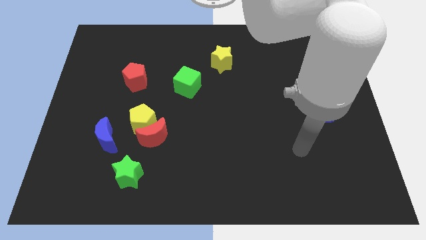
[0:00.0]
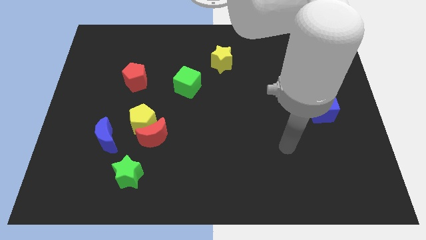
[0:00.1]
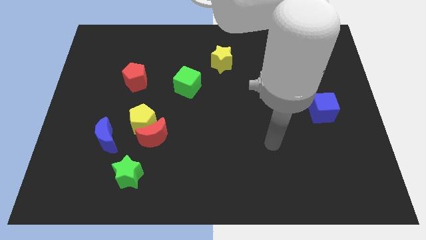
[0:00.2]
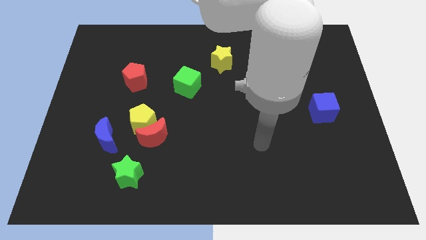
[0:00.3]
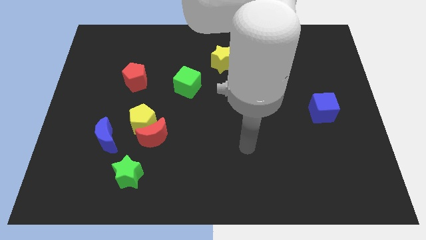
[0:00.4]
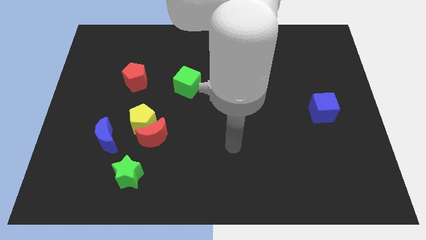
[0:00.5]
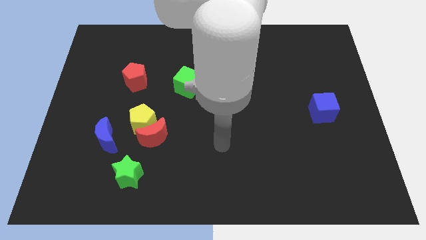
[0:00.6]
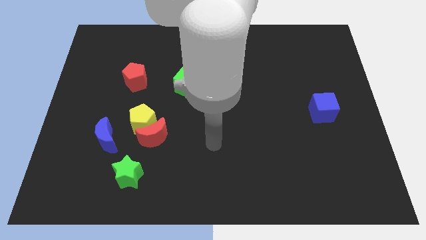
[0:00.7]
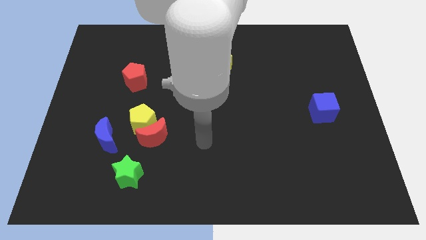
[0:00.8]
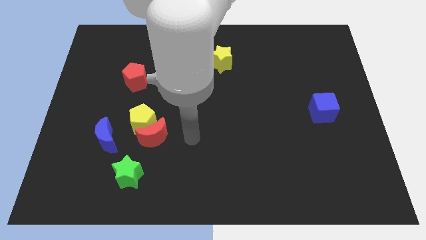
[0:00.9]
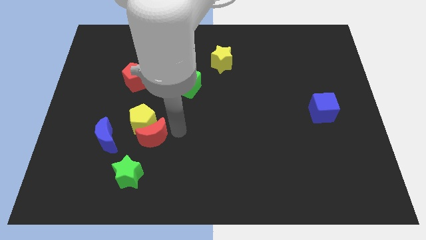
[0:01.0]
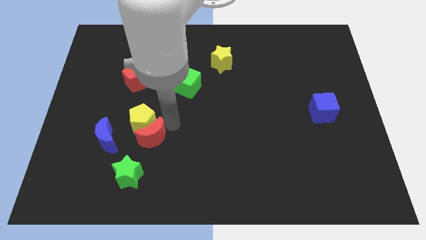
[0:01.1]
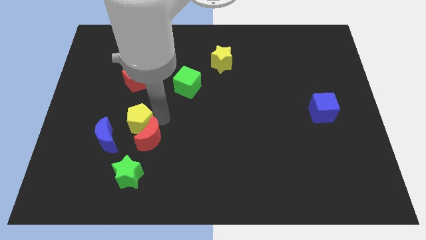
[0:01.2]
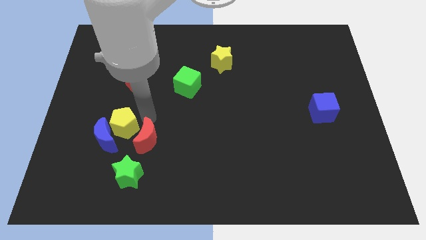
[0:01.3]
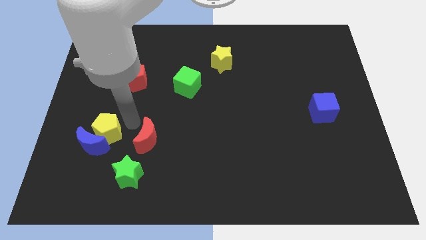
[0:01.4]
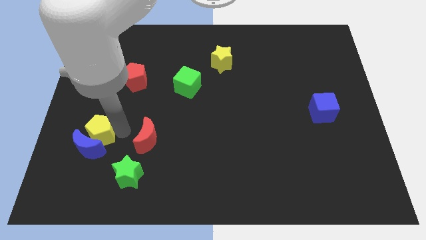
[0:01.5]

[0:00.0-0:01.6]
move the red moon away from the yellow pentagon

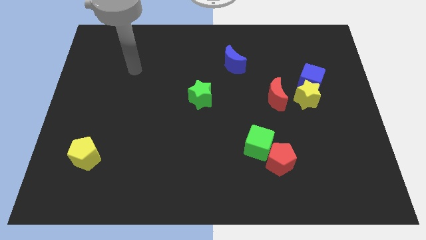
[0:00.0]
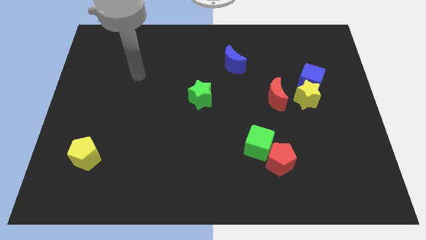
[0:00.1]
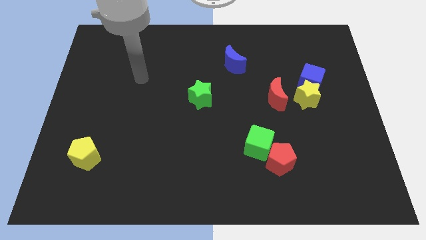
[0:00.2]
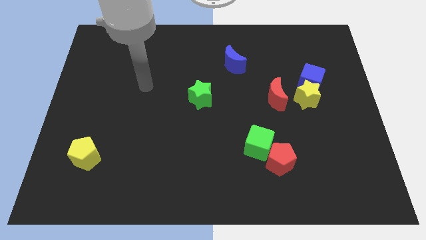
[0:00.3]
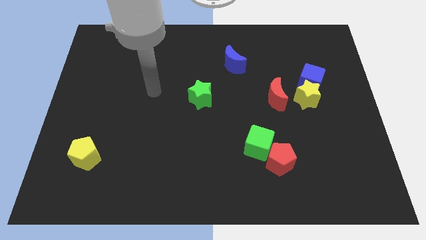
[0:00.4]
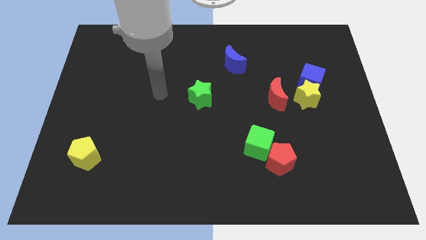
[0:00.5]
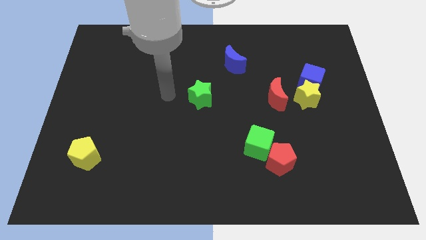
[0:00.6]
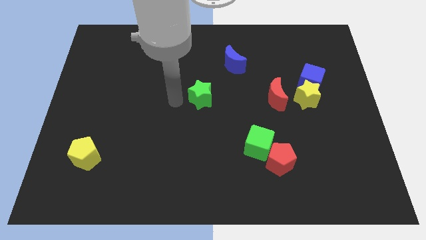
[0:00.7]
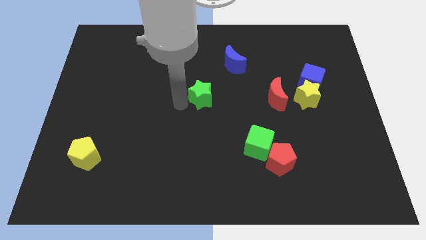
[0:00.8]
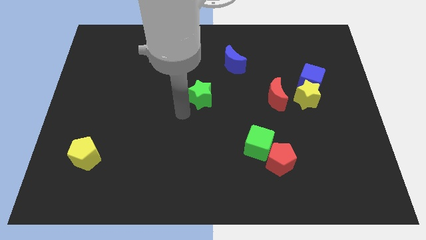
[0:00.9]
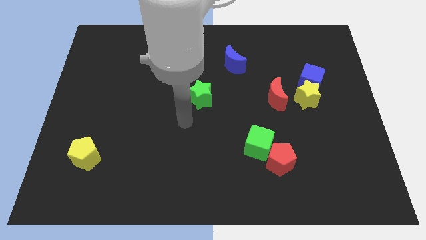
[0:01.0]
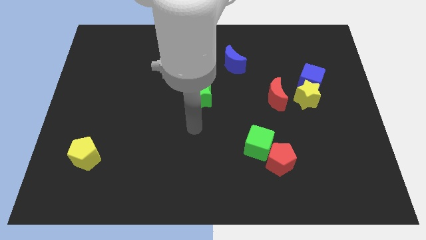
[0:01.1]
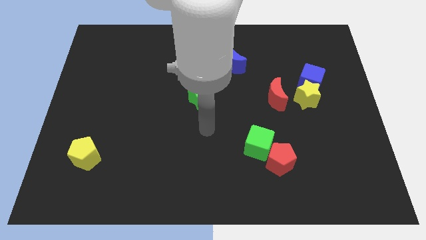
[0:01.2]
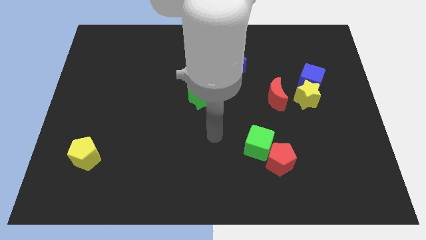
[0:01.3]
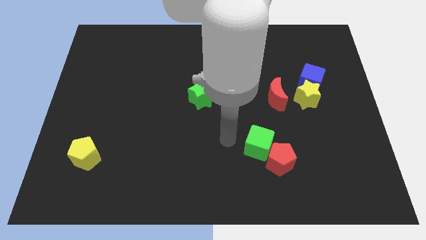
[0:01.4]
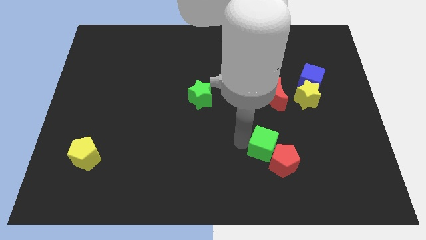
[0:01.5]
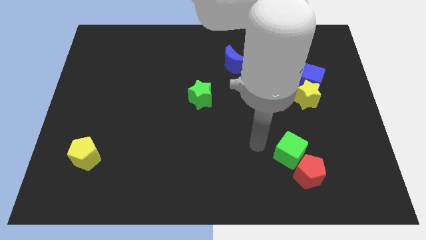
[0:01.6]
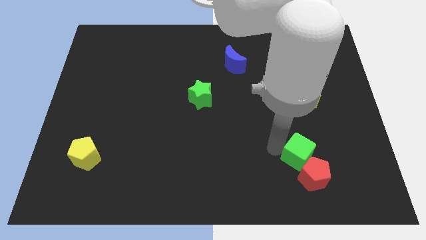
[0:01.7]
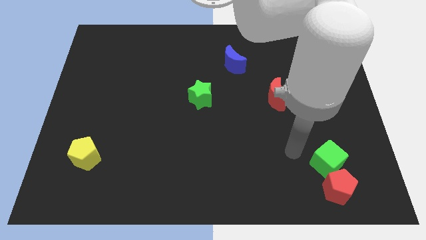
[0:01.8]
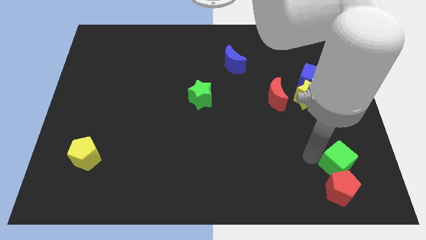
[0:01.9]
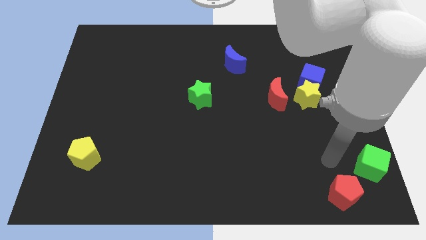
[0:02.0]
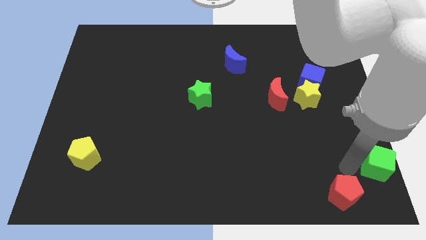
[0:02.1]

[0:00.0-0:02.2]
pull the red pentagon apart from the green cube

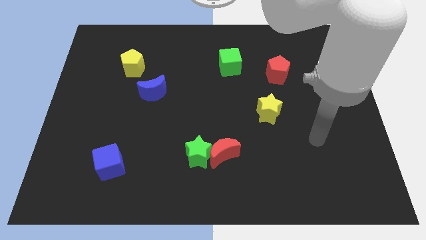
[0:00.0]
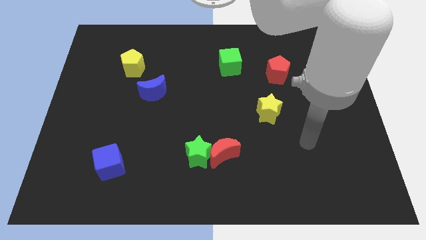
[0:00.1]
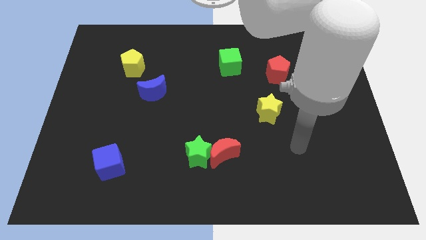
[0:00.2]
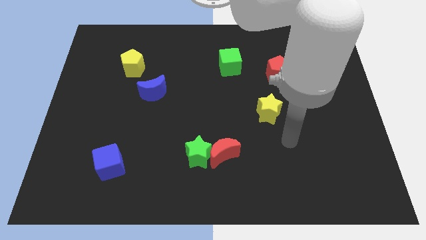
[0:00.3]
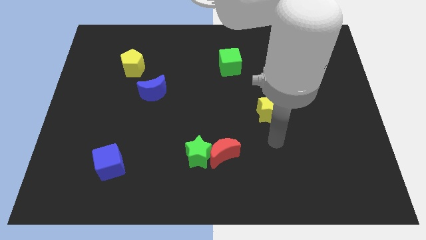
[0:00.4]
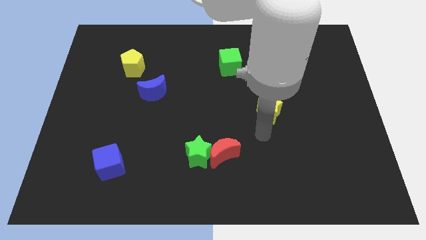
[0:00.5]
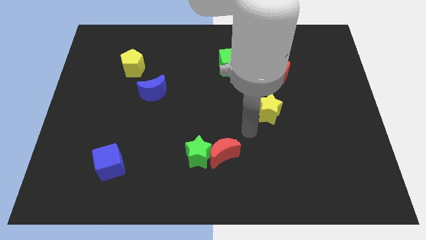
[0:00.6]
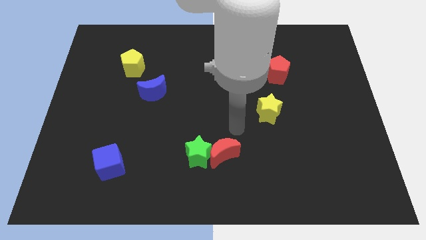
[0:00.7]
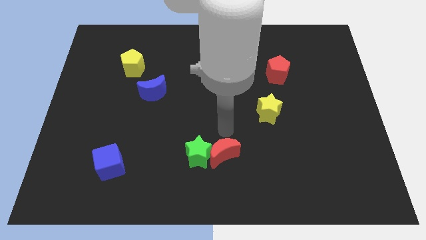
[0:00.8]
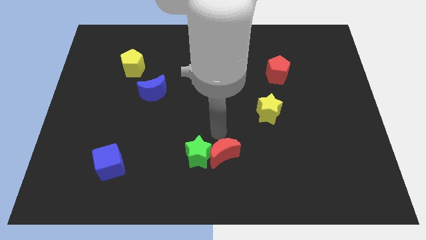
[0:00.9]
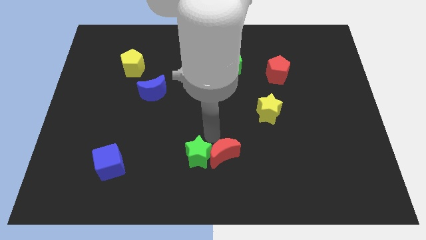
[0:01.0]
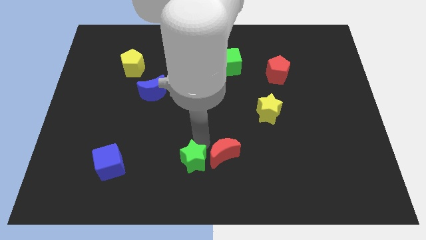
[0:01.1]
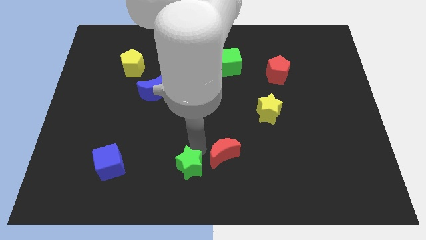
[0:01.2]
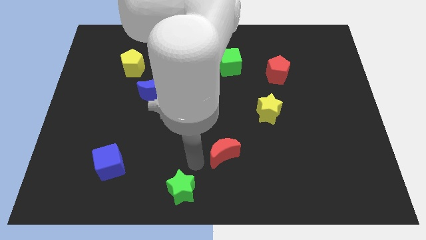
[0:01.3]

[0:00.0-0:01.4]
move the red moon away from the green star

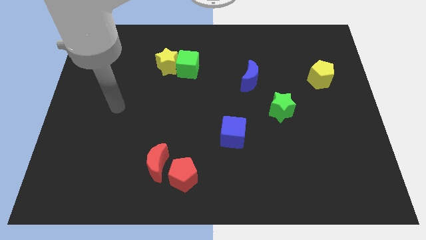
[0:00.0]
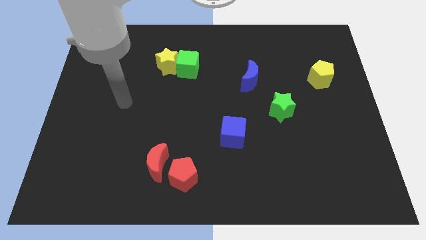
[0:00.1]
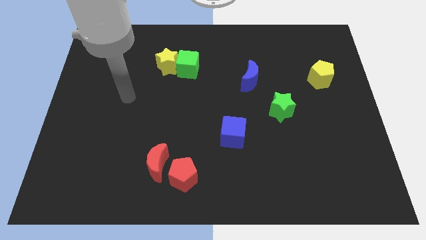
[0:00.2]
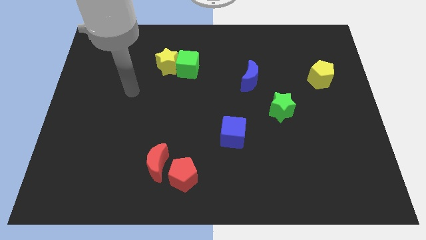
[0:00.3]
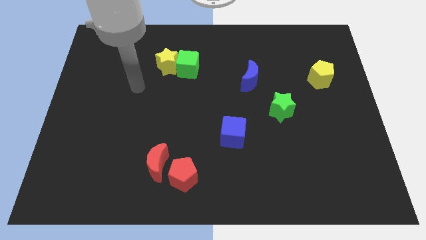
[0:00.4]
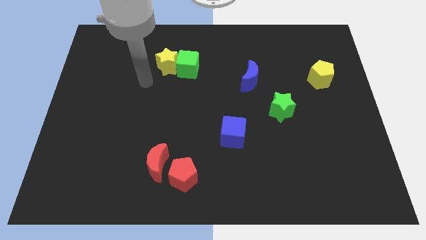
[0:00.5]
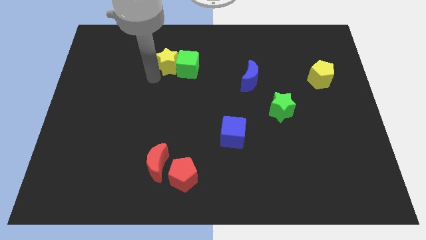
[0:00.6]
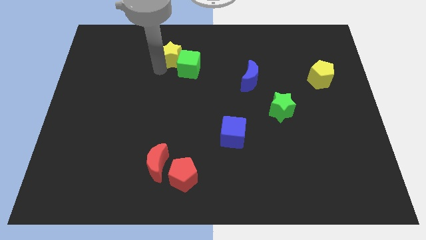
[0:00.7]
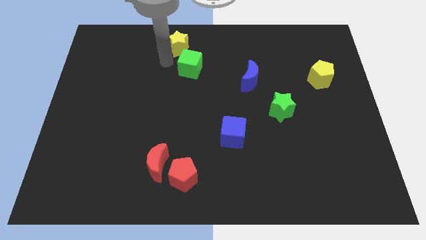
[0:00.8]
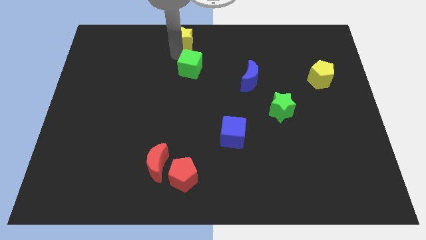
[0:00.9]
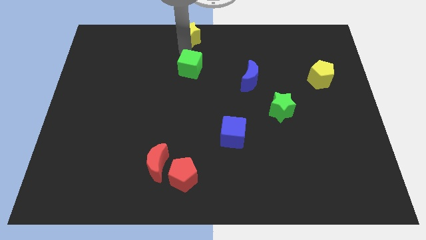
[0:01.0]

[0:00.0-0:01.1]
separate the green cube from the yellow star

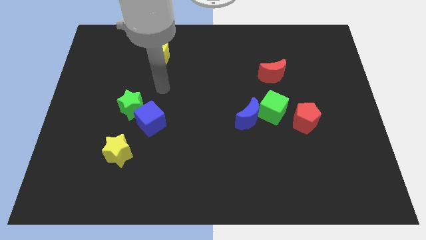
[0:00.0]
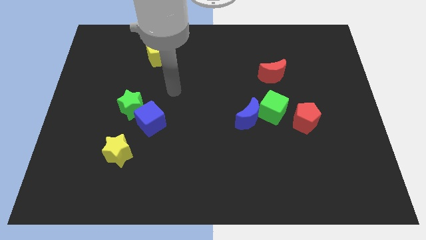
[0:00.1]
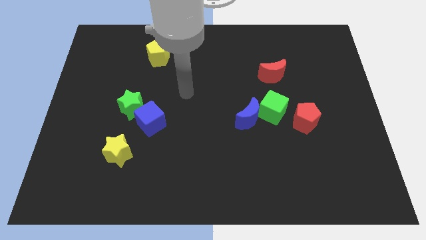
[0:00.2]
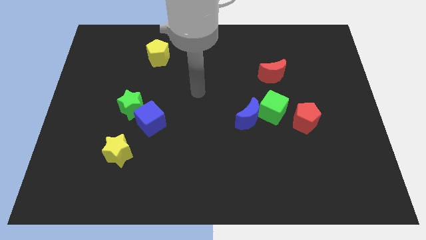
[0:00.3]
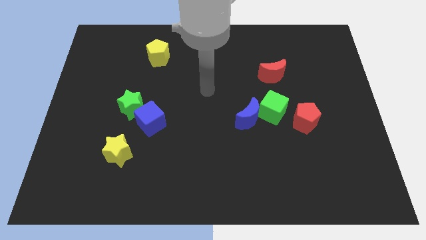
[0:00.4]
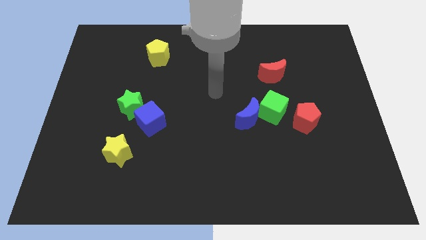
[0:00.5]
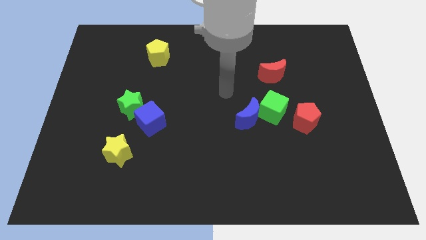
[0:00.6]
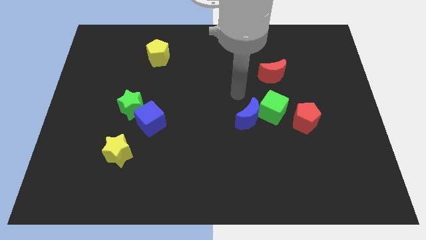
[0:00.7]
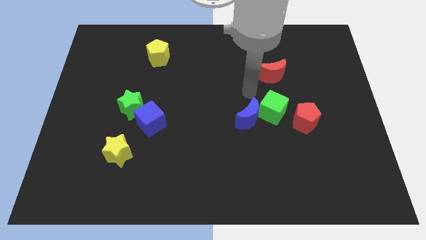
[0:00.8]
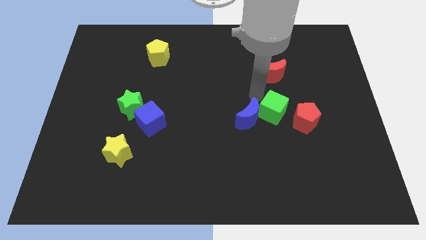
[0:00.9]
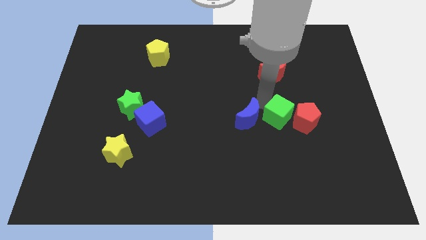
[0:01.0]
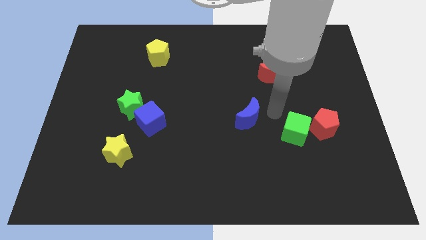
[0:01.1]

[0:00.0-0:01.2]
pull the blue moon apart from the green cube

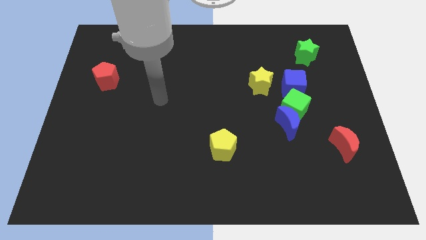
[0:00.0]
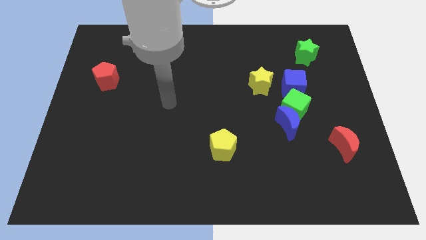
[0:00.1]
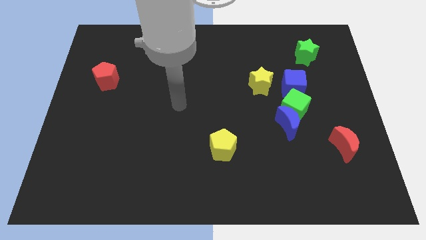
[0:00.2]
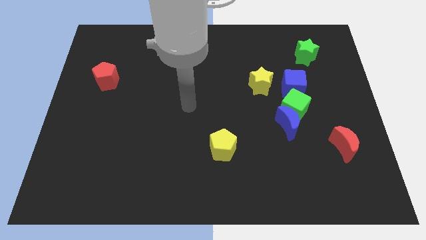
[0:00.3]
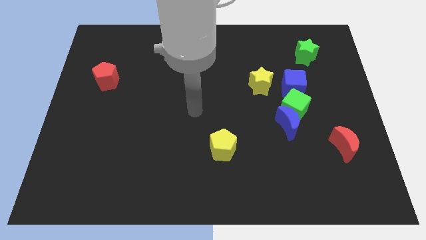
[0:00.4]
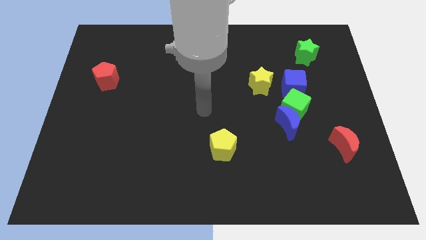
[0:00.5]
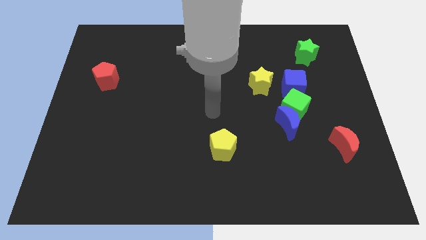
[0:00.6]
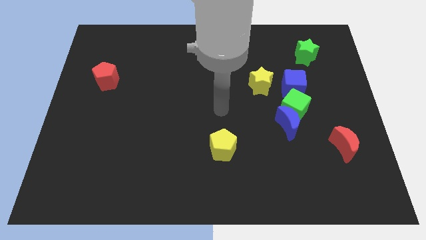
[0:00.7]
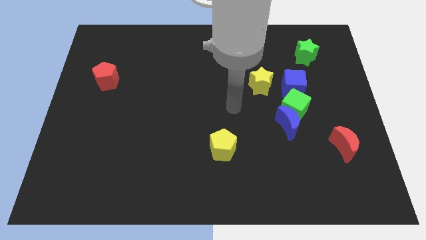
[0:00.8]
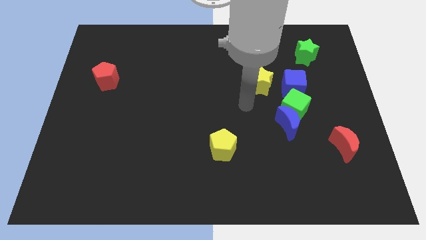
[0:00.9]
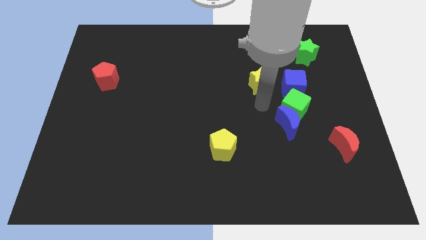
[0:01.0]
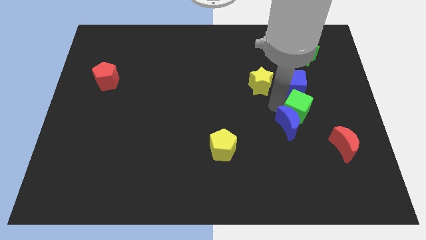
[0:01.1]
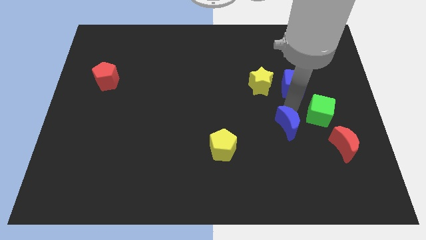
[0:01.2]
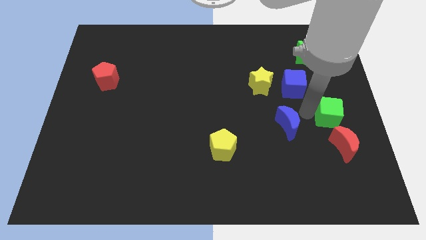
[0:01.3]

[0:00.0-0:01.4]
move the blue moon away from the green cube

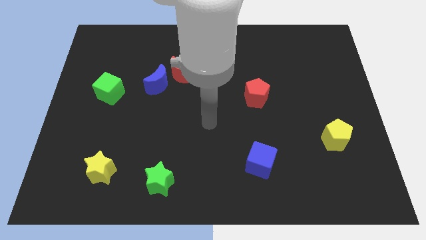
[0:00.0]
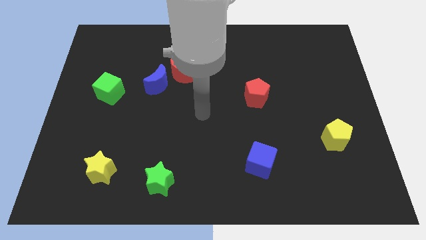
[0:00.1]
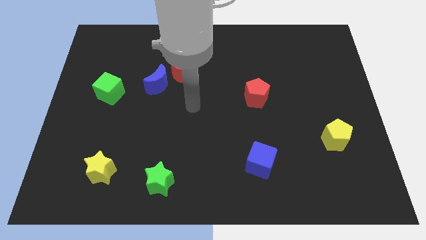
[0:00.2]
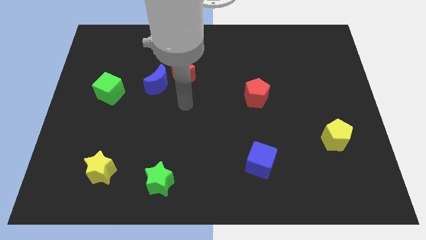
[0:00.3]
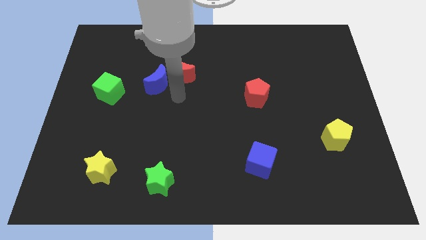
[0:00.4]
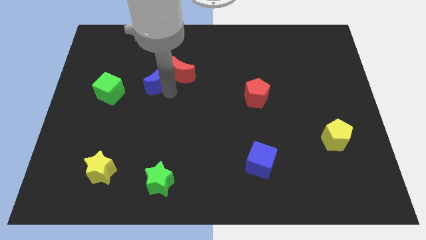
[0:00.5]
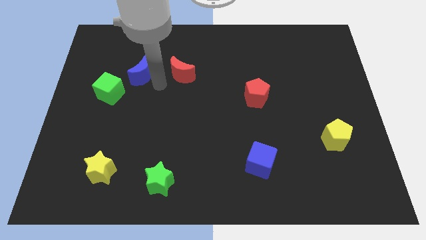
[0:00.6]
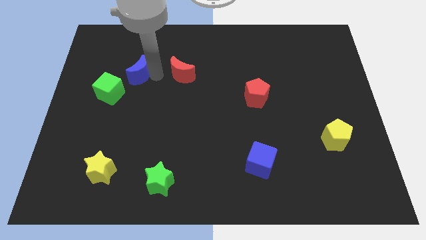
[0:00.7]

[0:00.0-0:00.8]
pull the red moon apart from the blue moon
